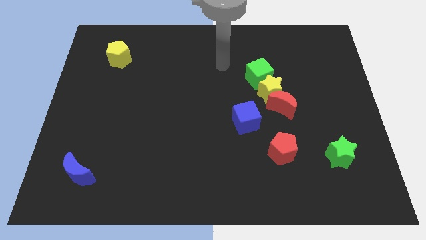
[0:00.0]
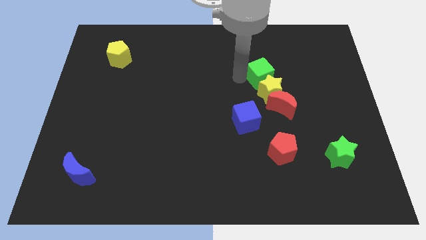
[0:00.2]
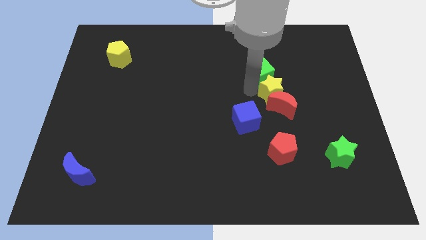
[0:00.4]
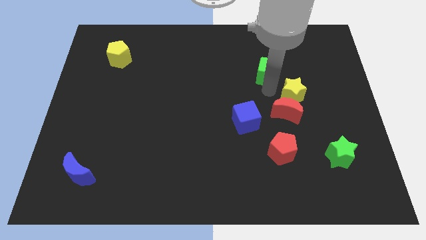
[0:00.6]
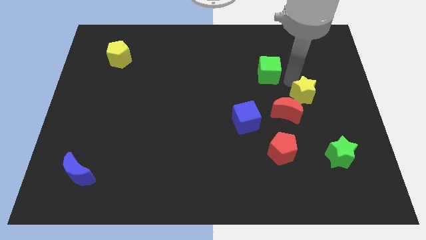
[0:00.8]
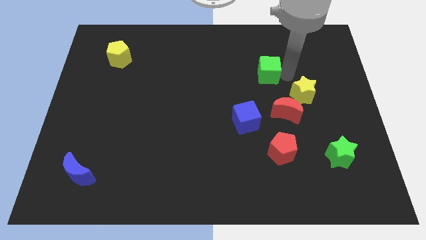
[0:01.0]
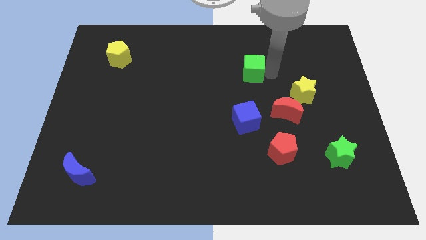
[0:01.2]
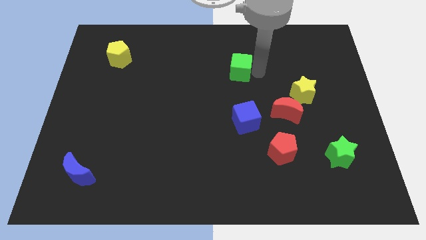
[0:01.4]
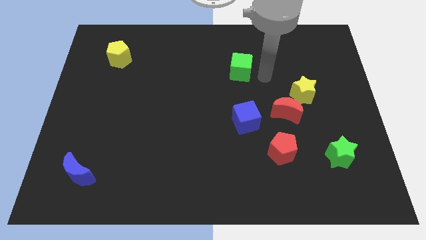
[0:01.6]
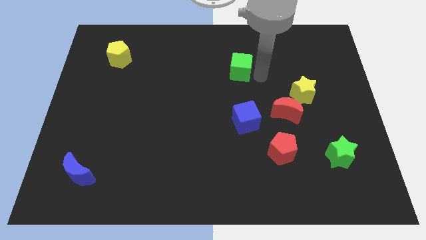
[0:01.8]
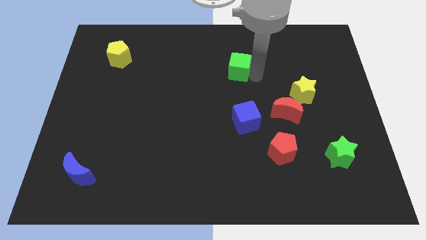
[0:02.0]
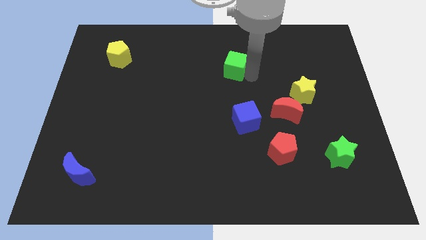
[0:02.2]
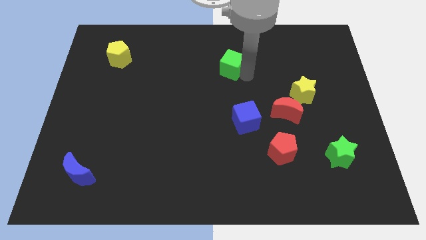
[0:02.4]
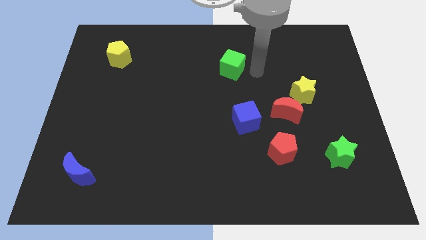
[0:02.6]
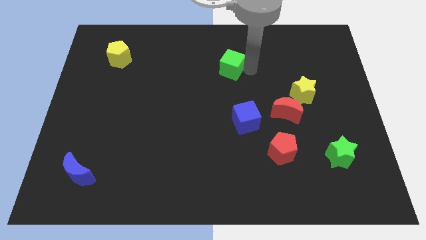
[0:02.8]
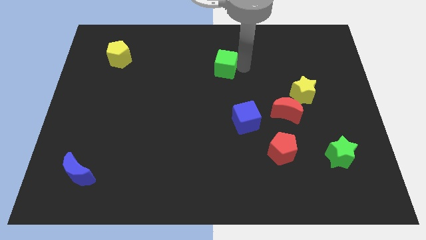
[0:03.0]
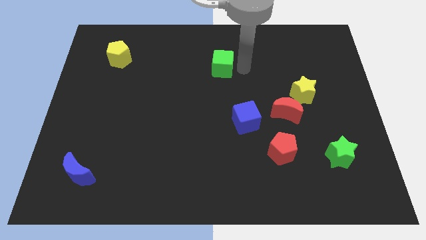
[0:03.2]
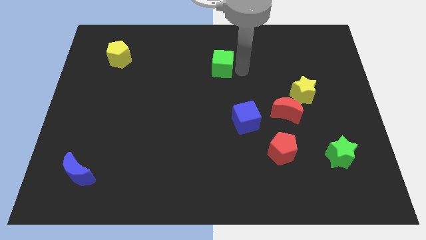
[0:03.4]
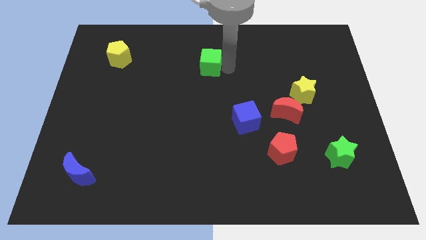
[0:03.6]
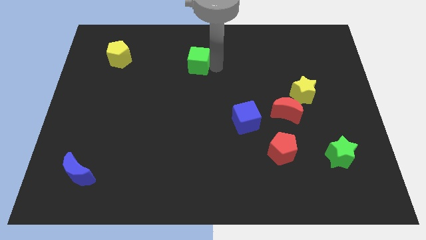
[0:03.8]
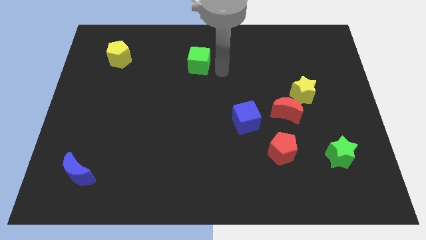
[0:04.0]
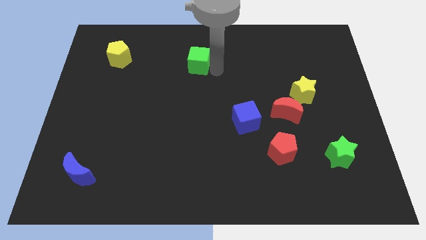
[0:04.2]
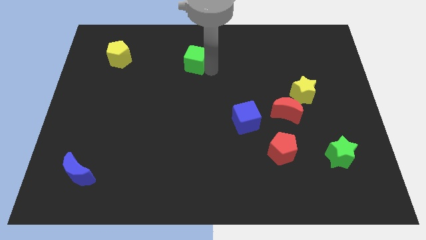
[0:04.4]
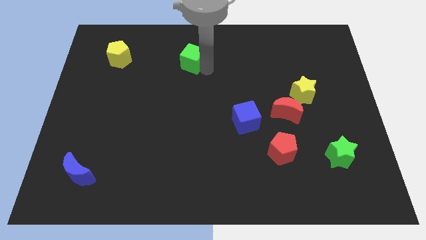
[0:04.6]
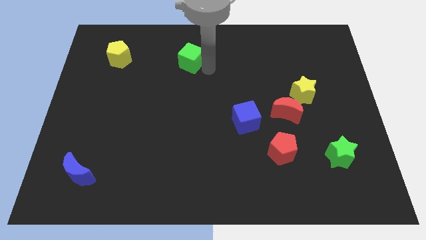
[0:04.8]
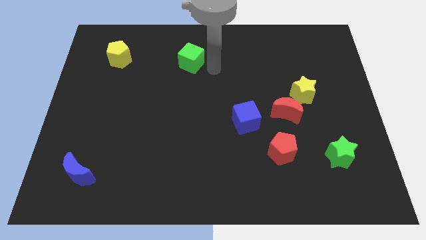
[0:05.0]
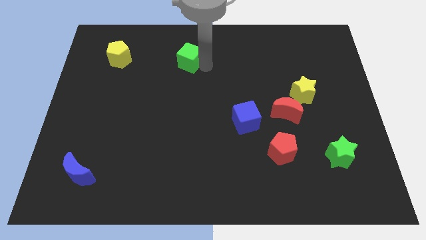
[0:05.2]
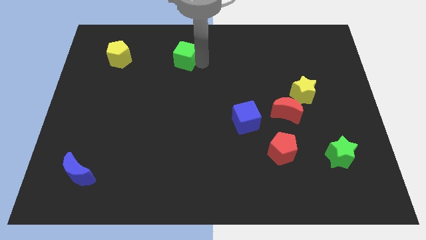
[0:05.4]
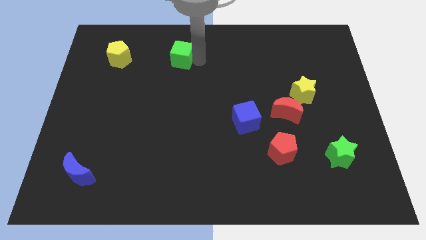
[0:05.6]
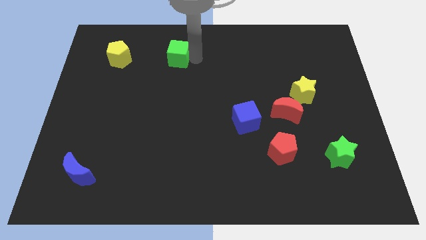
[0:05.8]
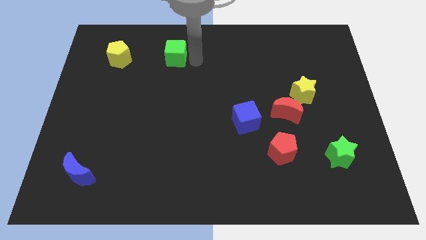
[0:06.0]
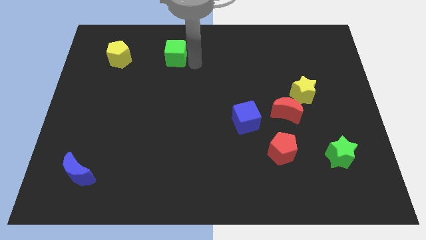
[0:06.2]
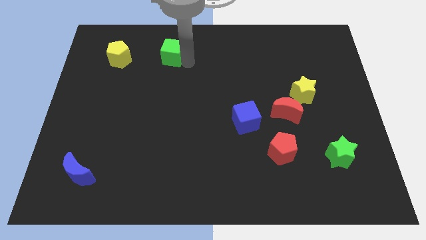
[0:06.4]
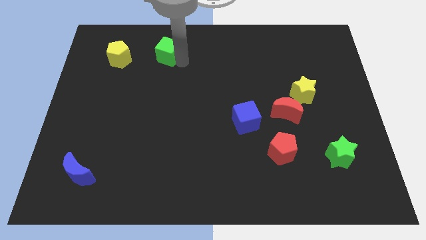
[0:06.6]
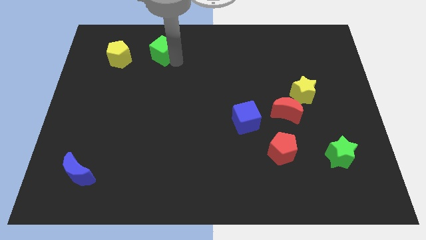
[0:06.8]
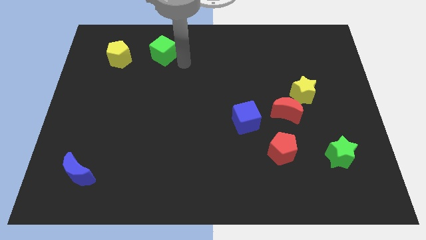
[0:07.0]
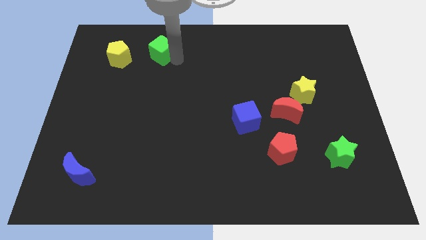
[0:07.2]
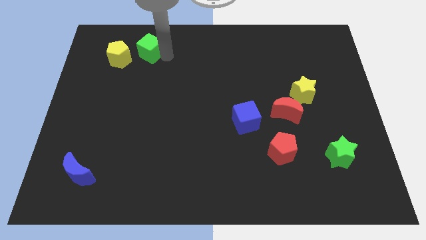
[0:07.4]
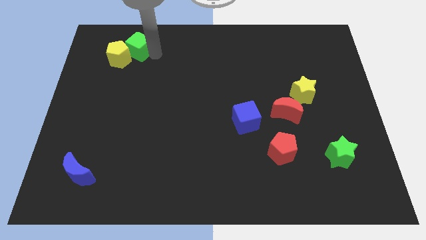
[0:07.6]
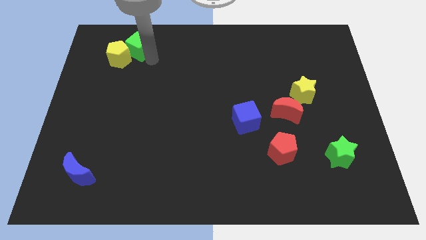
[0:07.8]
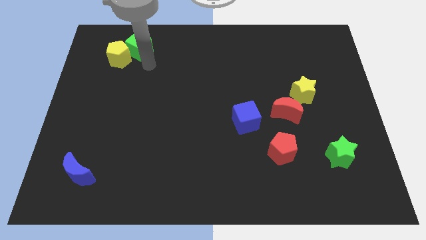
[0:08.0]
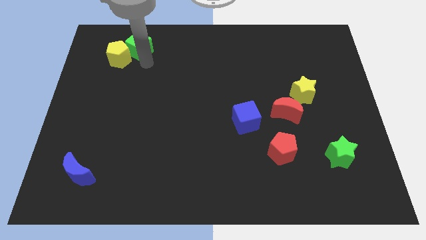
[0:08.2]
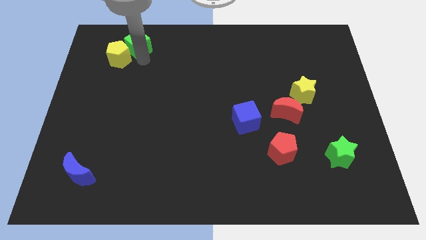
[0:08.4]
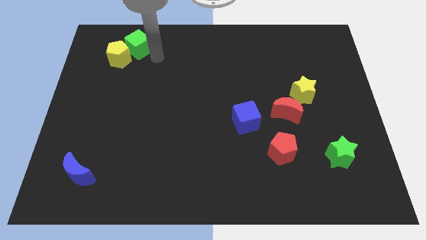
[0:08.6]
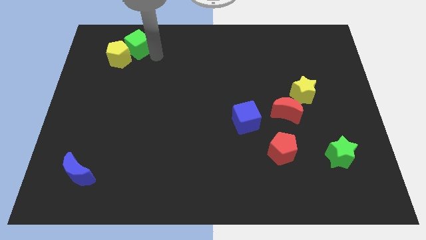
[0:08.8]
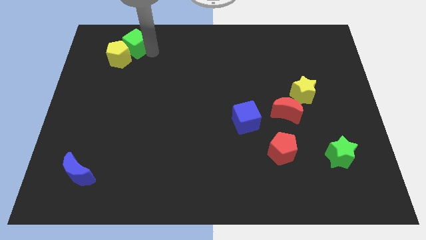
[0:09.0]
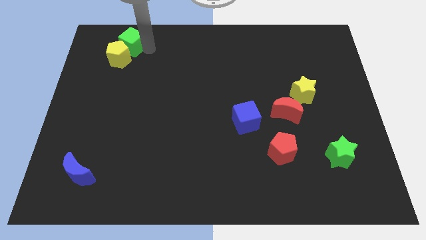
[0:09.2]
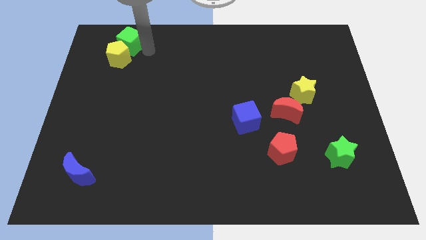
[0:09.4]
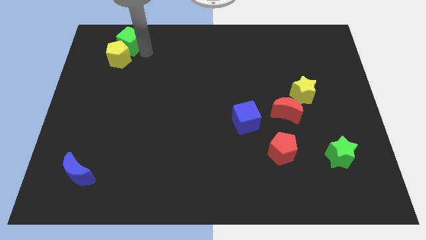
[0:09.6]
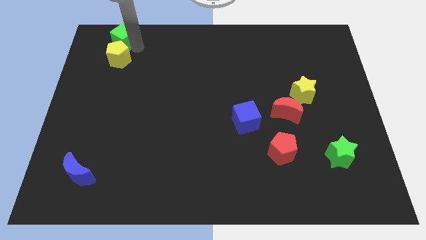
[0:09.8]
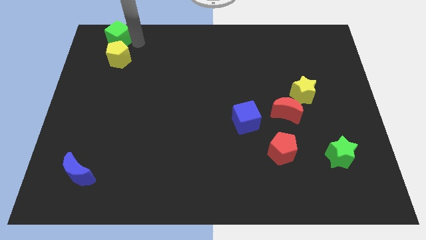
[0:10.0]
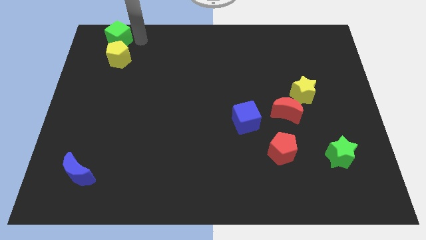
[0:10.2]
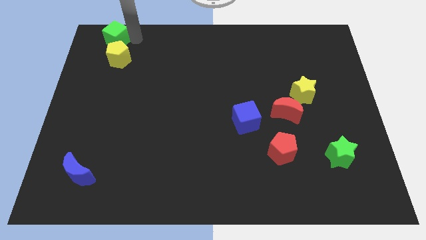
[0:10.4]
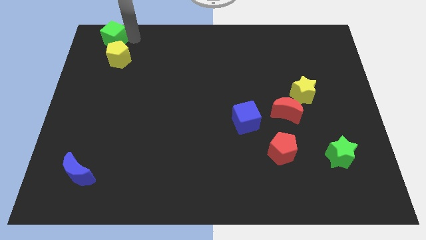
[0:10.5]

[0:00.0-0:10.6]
push the green cube to the upper left corner

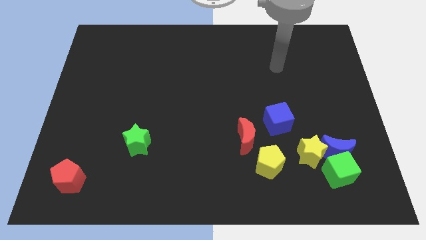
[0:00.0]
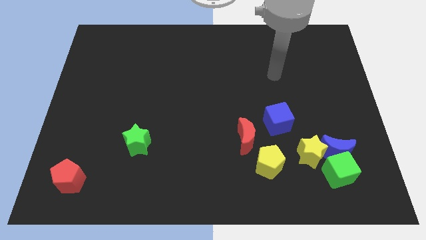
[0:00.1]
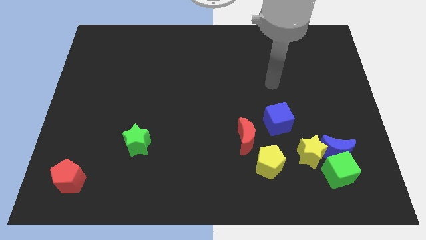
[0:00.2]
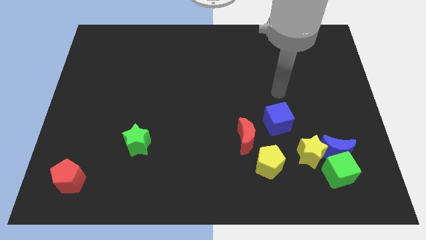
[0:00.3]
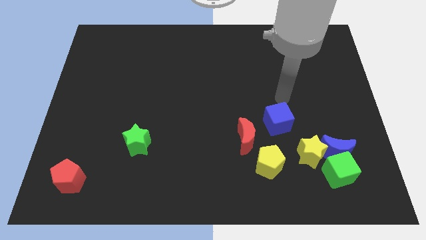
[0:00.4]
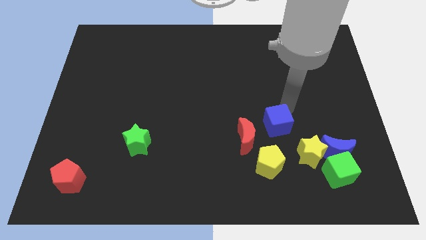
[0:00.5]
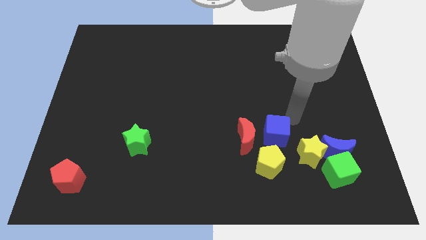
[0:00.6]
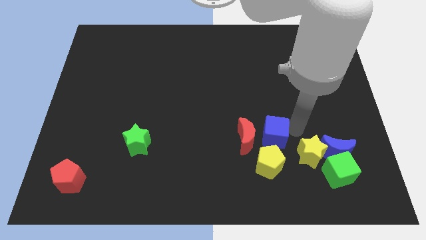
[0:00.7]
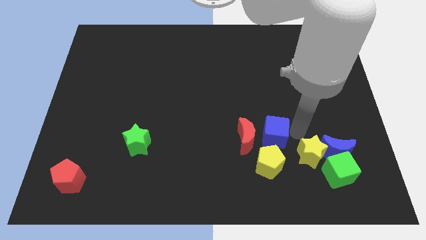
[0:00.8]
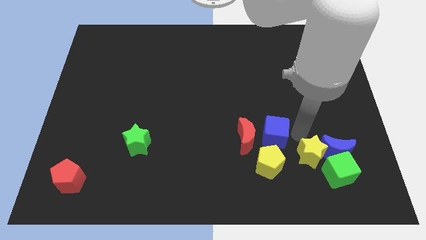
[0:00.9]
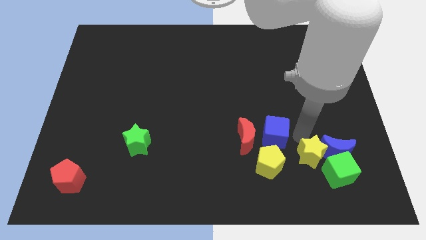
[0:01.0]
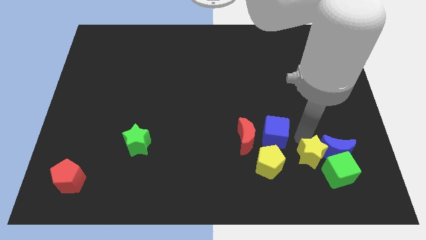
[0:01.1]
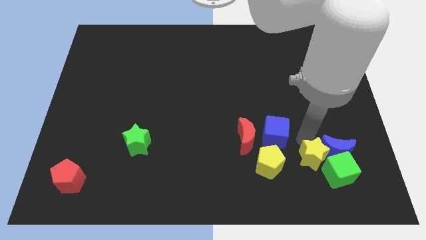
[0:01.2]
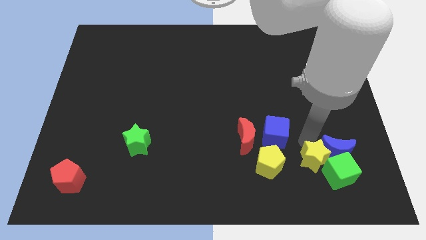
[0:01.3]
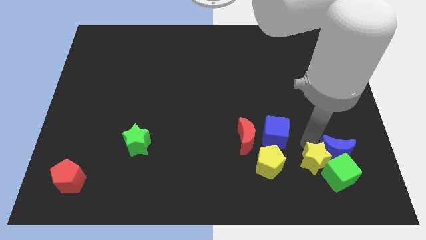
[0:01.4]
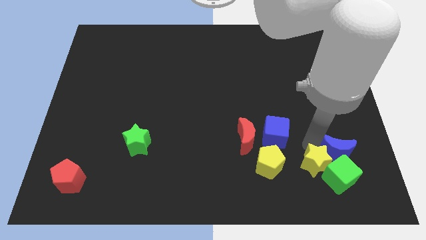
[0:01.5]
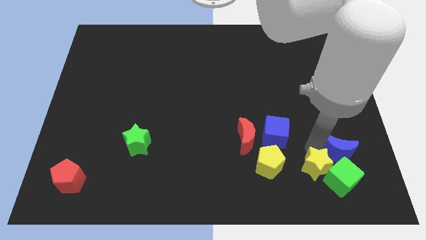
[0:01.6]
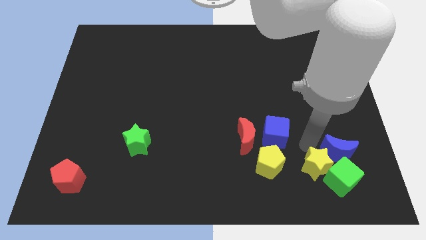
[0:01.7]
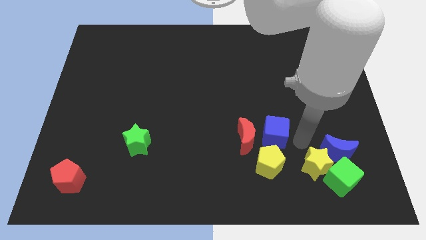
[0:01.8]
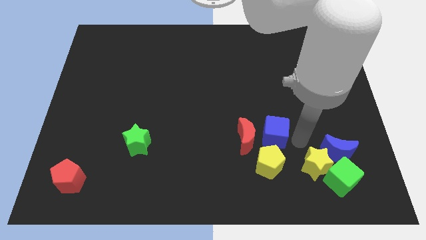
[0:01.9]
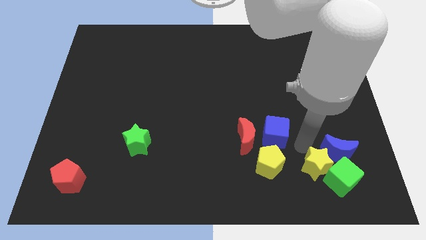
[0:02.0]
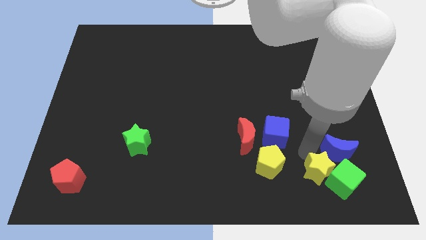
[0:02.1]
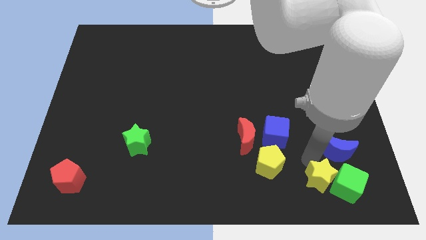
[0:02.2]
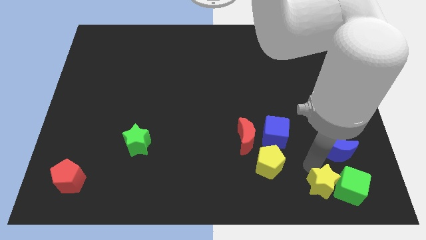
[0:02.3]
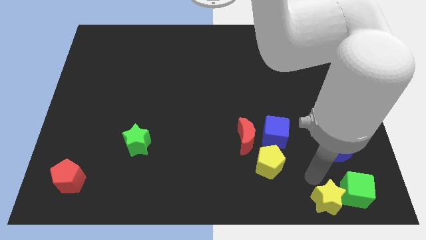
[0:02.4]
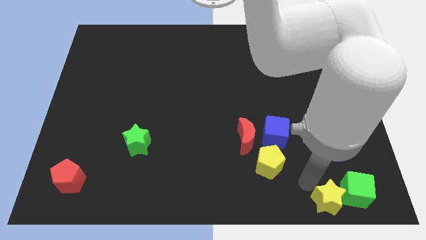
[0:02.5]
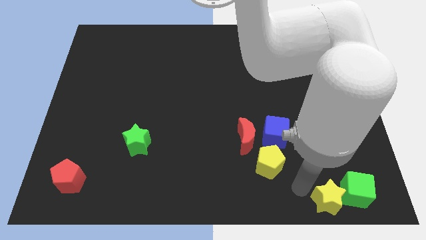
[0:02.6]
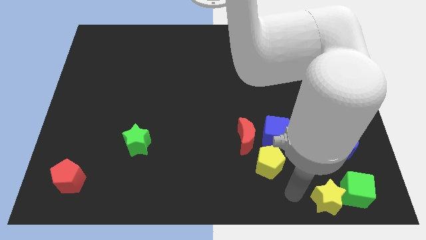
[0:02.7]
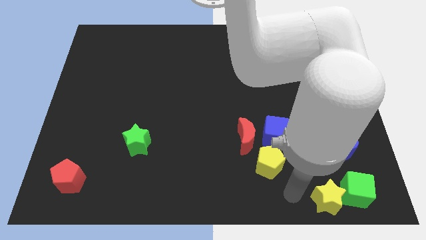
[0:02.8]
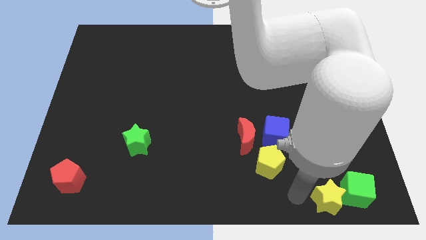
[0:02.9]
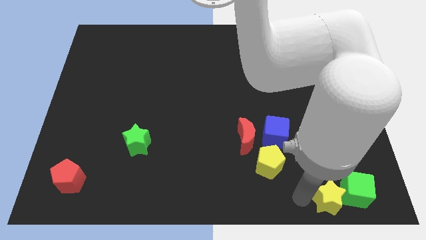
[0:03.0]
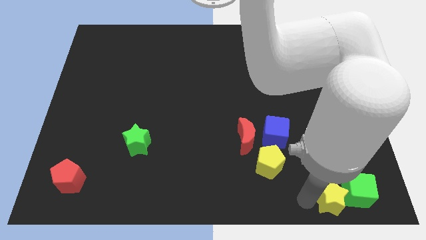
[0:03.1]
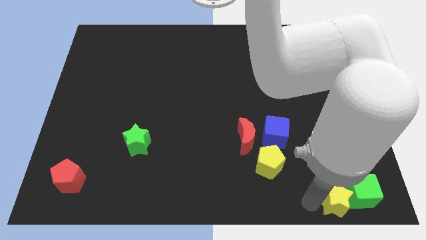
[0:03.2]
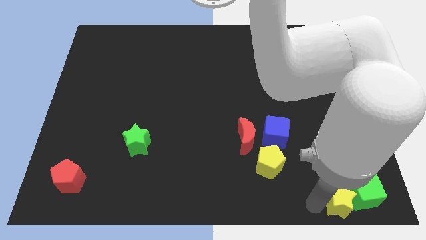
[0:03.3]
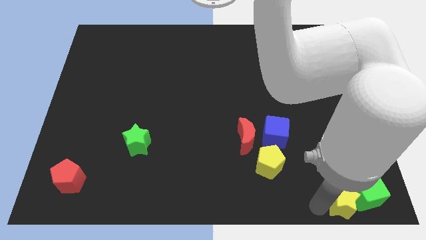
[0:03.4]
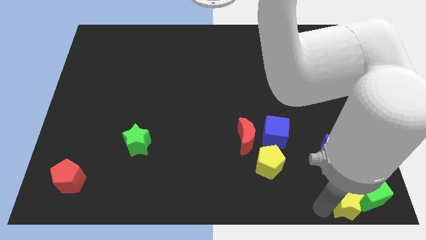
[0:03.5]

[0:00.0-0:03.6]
put the yellow star to the bottom right of the board
